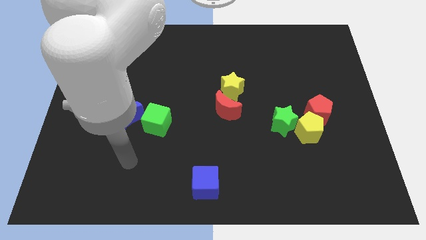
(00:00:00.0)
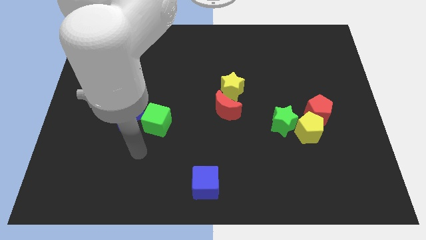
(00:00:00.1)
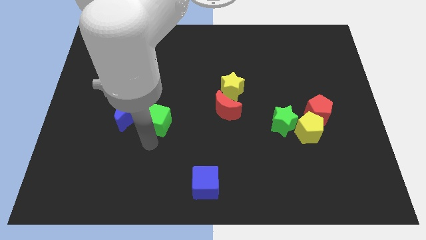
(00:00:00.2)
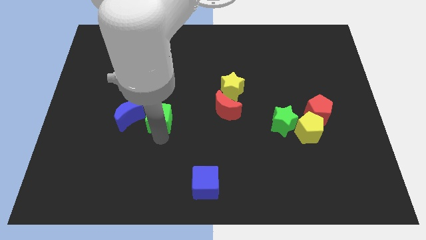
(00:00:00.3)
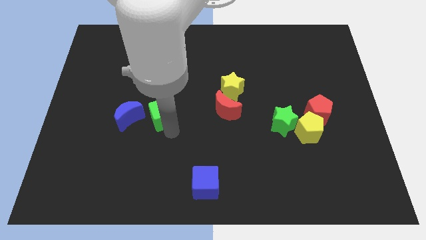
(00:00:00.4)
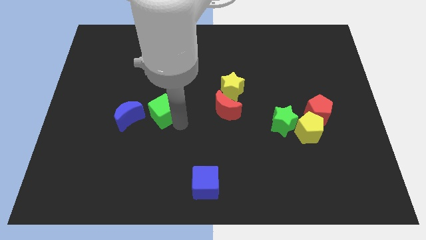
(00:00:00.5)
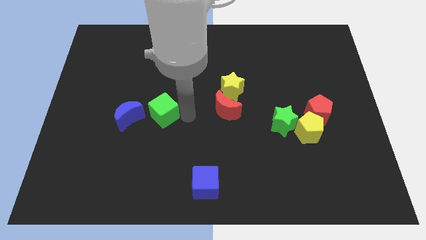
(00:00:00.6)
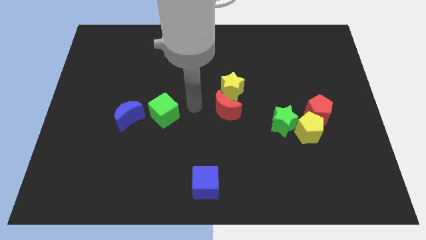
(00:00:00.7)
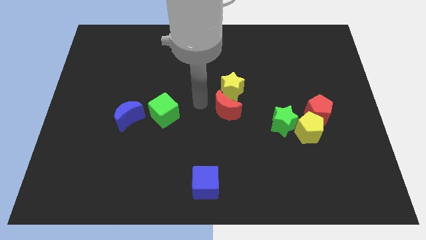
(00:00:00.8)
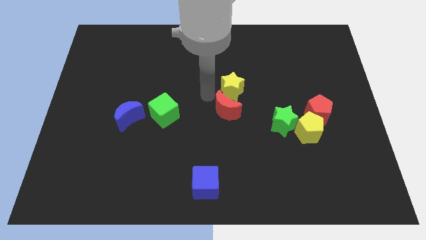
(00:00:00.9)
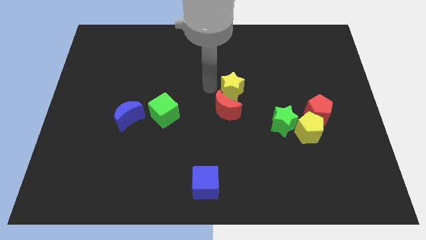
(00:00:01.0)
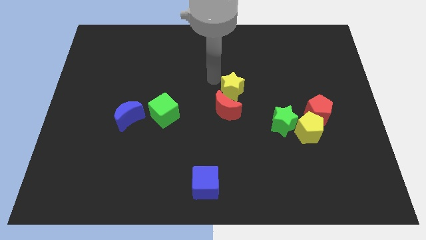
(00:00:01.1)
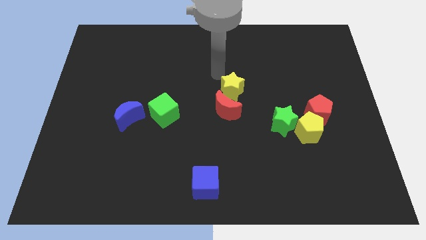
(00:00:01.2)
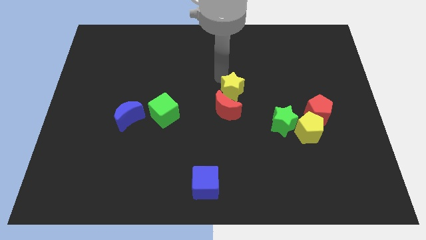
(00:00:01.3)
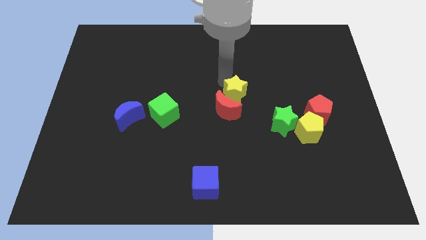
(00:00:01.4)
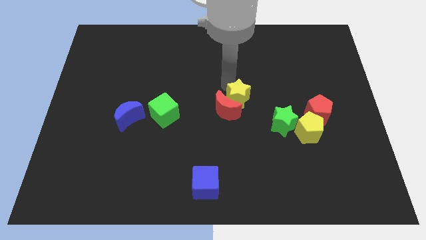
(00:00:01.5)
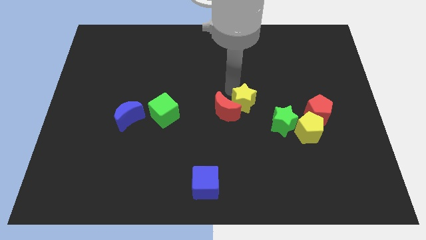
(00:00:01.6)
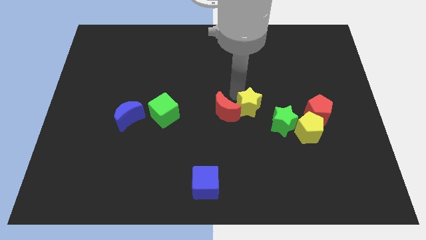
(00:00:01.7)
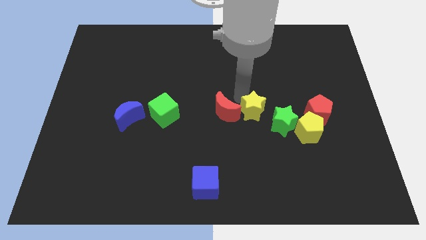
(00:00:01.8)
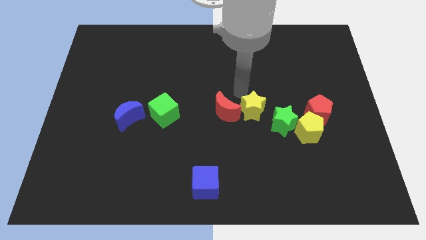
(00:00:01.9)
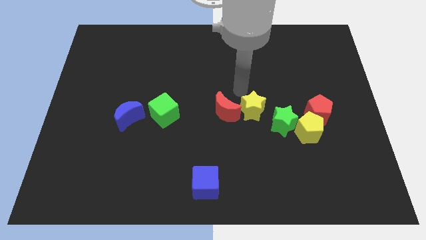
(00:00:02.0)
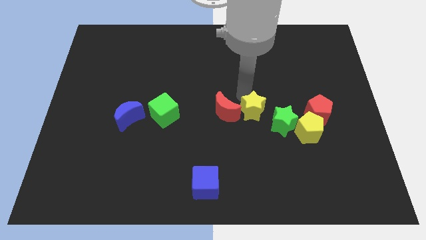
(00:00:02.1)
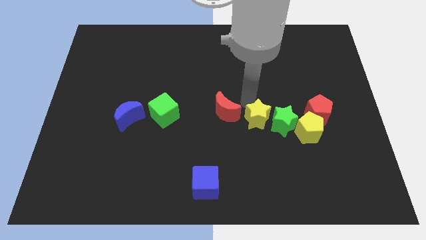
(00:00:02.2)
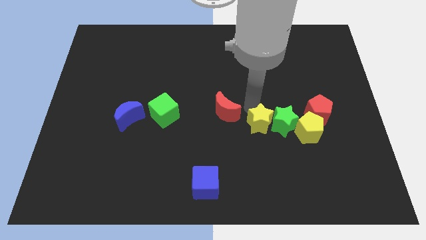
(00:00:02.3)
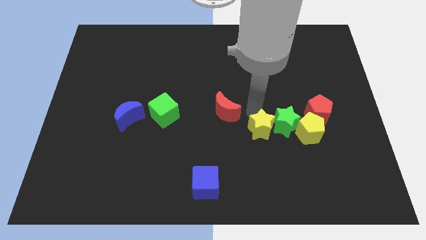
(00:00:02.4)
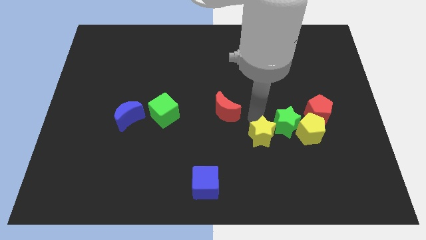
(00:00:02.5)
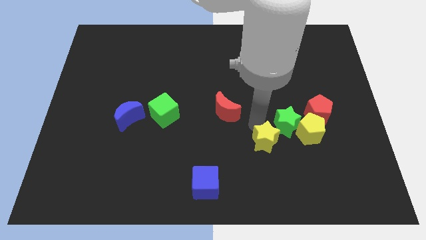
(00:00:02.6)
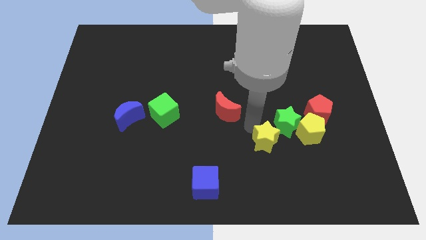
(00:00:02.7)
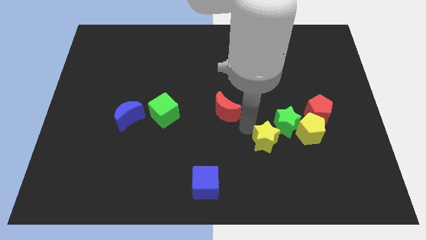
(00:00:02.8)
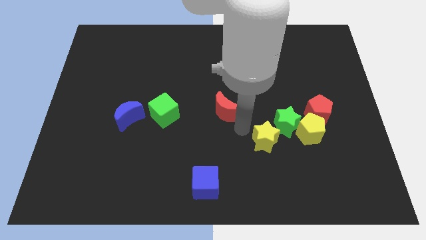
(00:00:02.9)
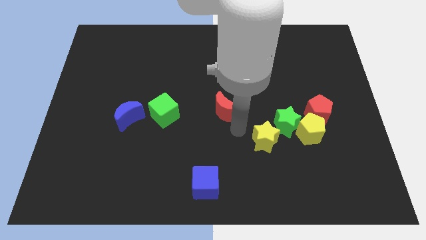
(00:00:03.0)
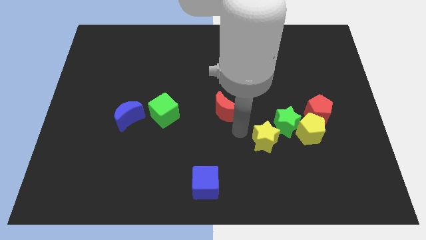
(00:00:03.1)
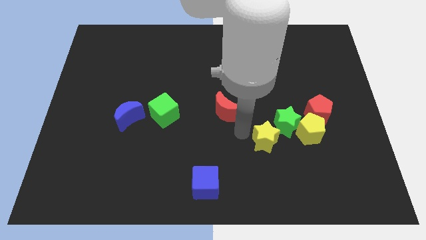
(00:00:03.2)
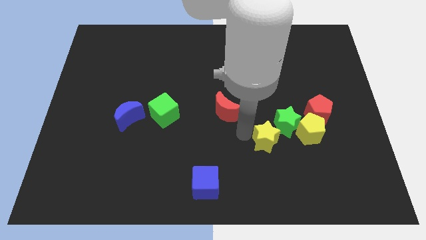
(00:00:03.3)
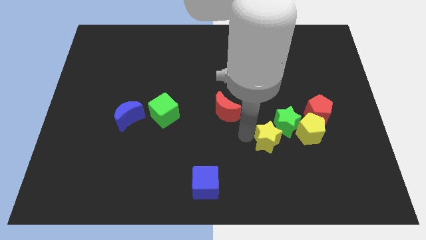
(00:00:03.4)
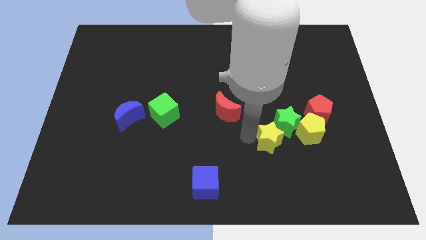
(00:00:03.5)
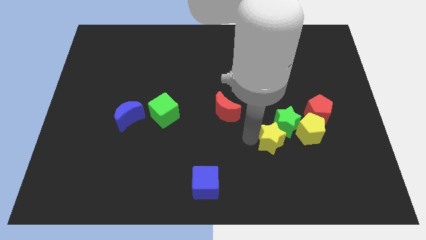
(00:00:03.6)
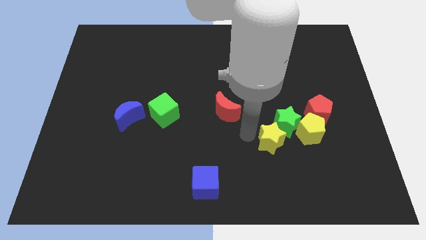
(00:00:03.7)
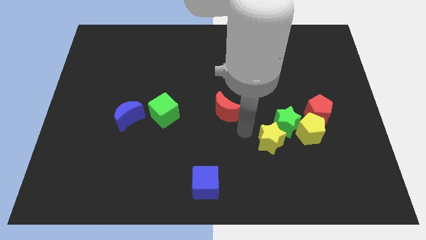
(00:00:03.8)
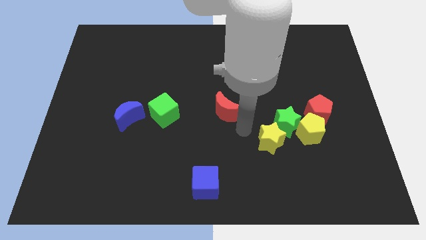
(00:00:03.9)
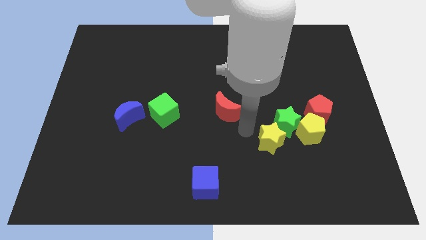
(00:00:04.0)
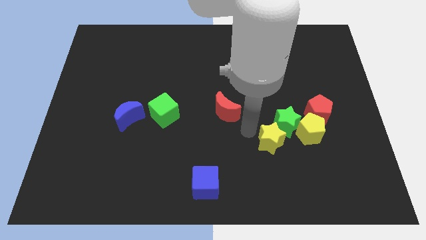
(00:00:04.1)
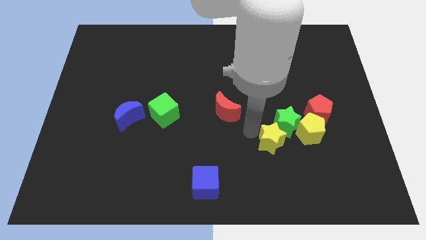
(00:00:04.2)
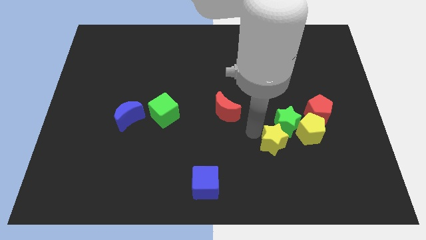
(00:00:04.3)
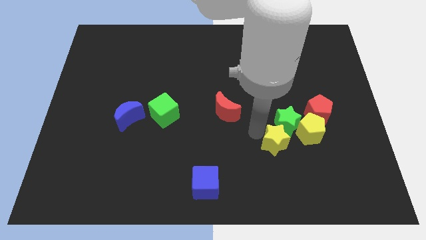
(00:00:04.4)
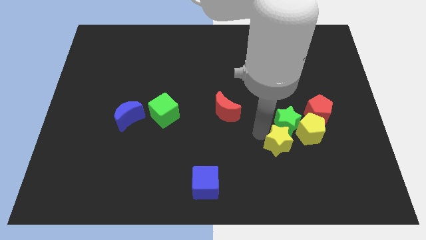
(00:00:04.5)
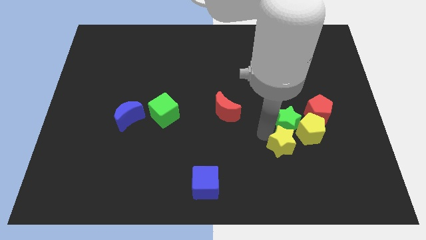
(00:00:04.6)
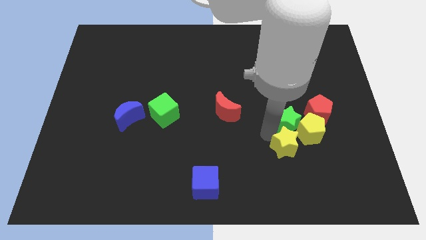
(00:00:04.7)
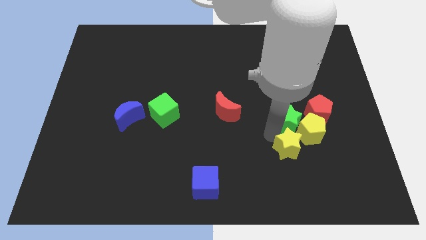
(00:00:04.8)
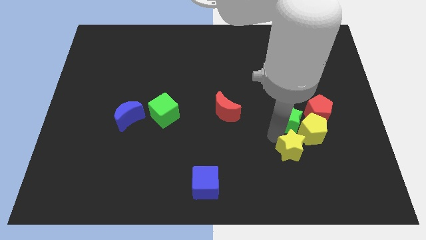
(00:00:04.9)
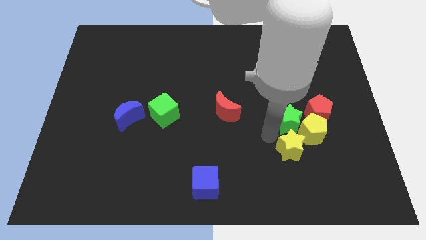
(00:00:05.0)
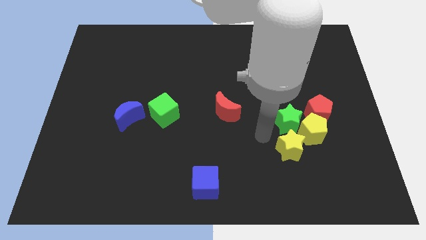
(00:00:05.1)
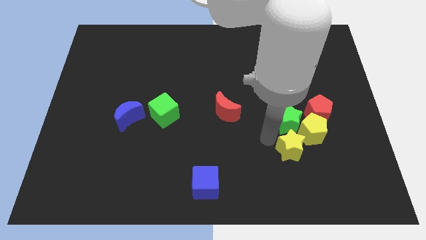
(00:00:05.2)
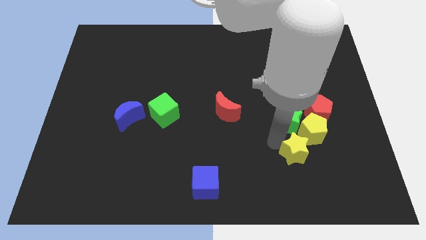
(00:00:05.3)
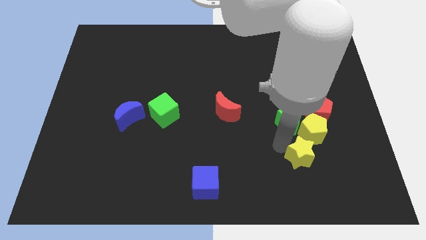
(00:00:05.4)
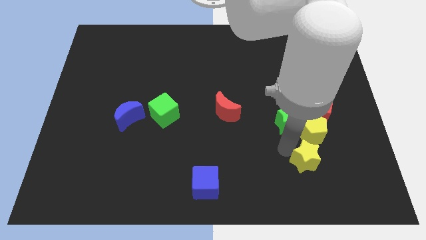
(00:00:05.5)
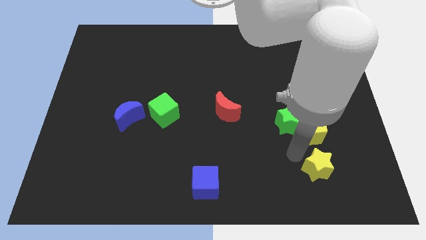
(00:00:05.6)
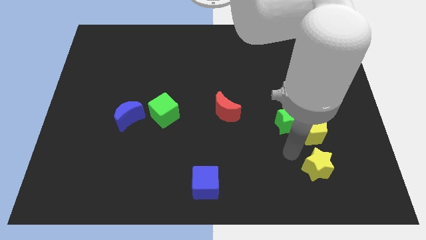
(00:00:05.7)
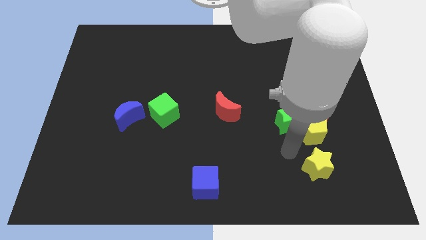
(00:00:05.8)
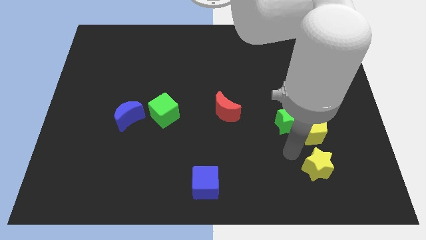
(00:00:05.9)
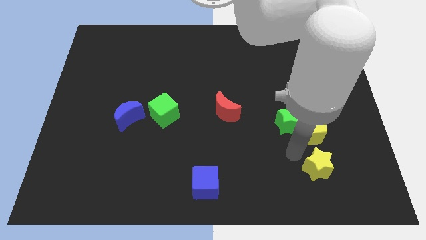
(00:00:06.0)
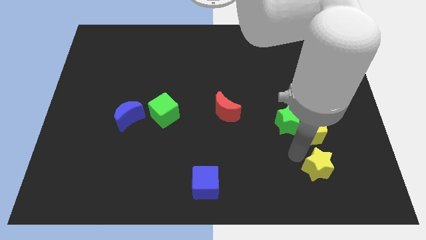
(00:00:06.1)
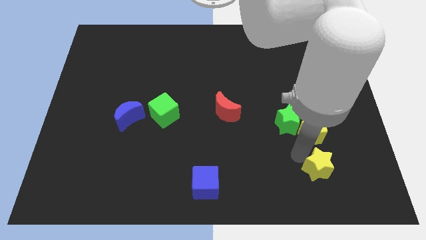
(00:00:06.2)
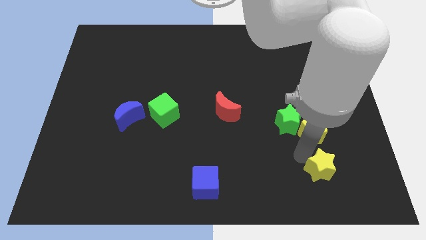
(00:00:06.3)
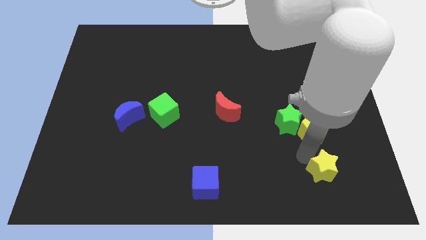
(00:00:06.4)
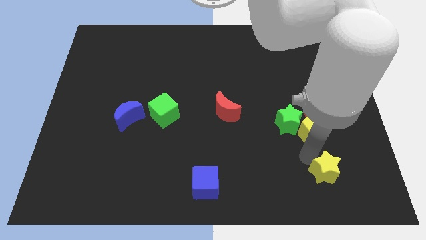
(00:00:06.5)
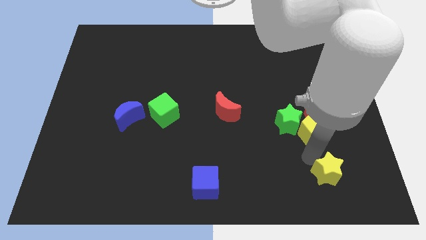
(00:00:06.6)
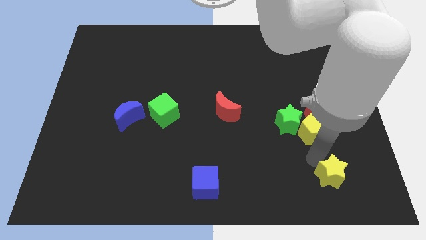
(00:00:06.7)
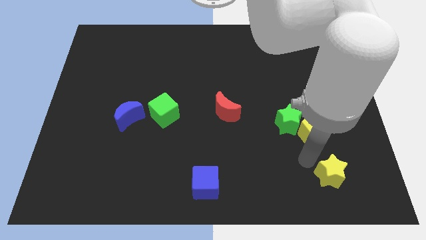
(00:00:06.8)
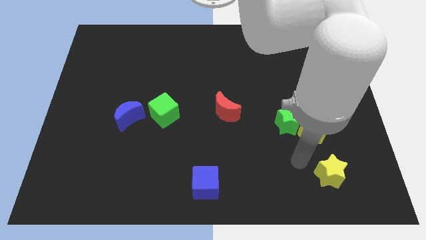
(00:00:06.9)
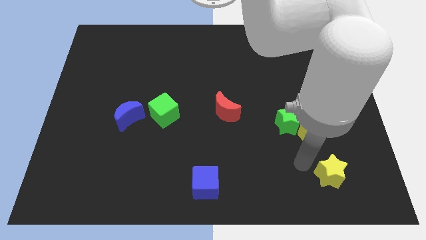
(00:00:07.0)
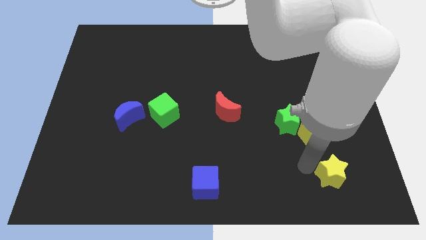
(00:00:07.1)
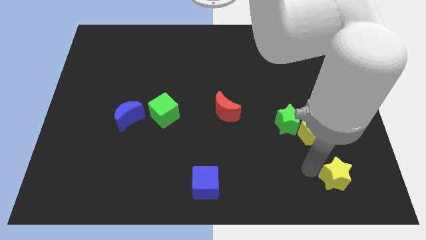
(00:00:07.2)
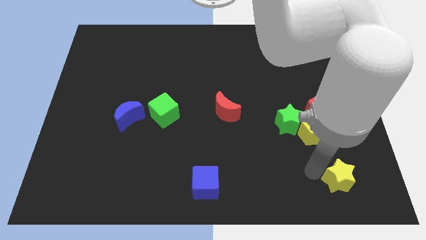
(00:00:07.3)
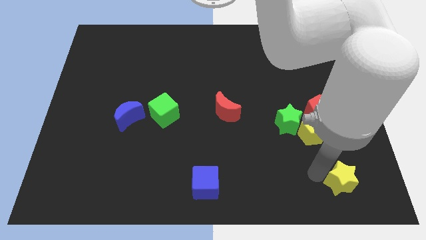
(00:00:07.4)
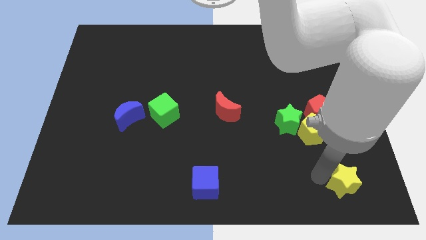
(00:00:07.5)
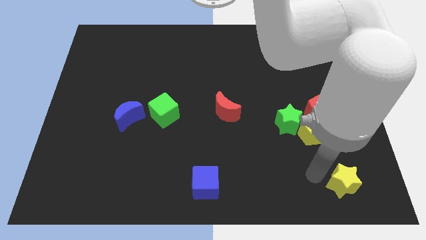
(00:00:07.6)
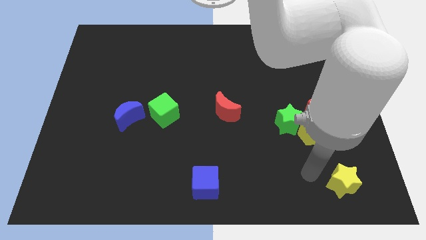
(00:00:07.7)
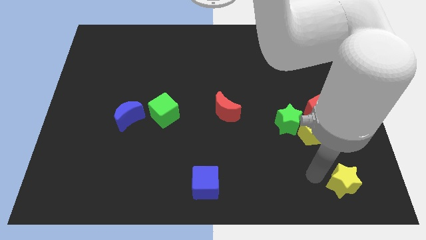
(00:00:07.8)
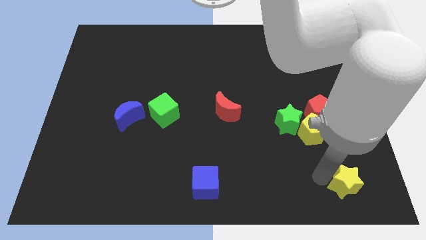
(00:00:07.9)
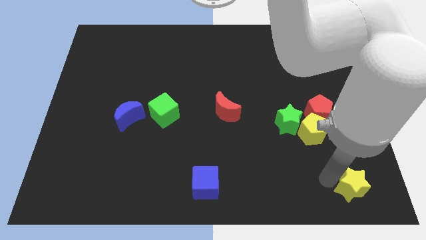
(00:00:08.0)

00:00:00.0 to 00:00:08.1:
slide the yellow star to the bottom right corner
